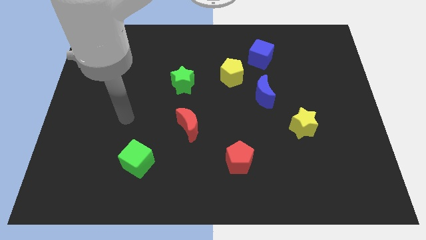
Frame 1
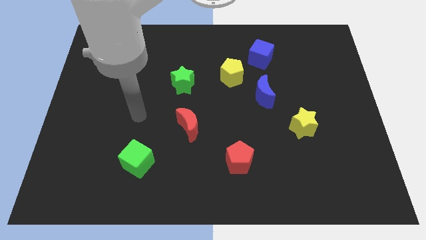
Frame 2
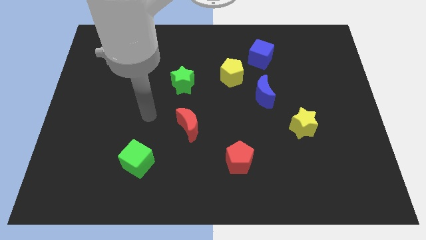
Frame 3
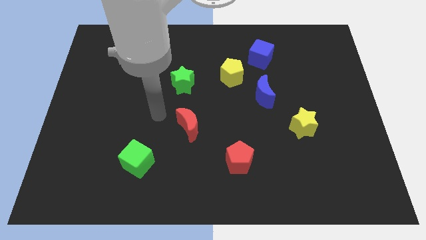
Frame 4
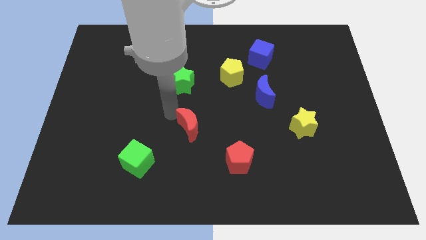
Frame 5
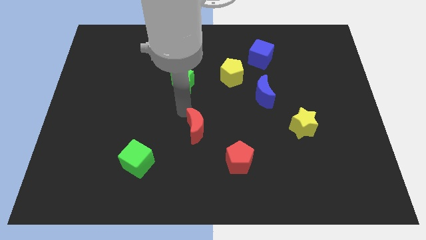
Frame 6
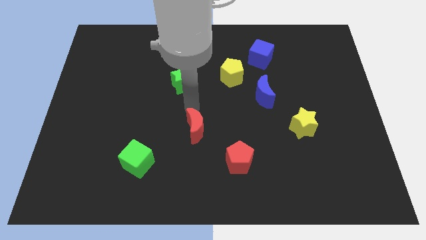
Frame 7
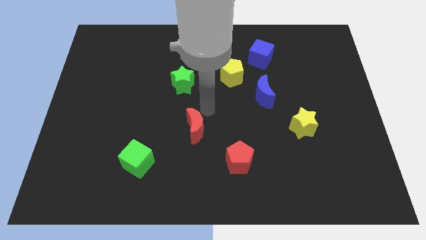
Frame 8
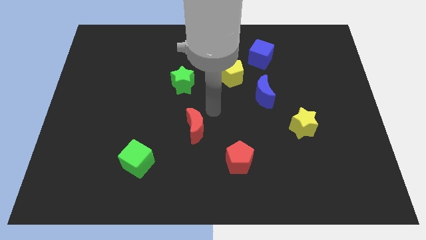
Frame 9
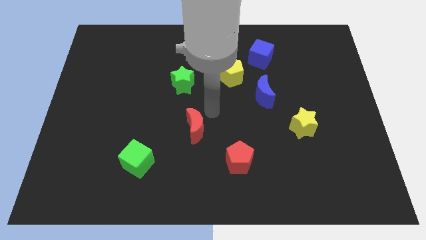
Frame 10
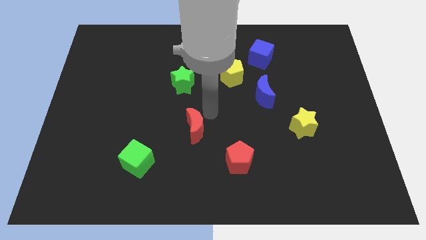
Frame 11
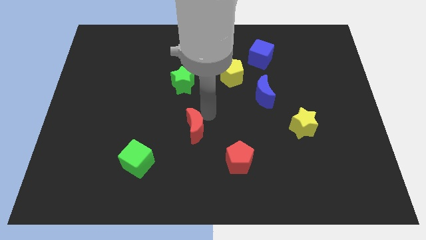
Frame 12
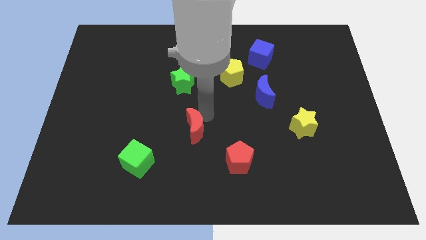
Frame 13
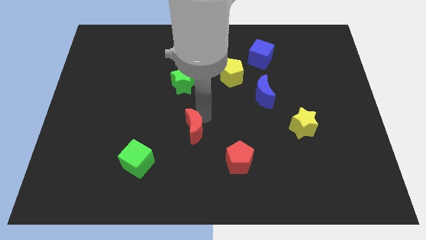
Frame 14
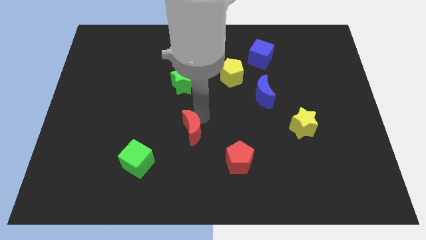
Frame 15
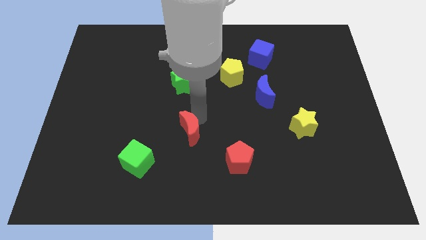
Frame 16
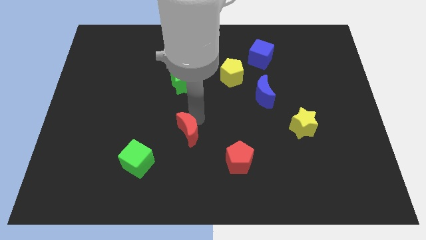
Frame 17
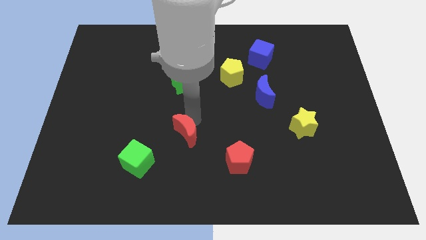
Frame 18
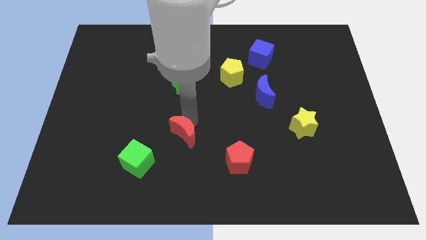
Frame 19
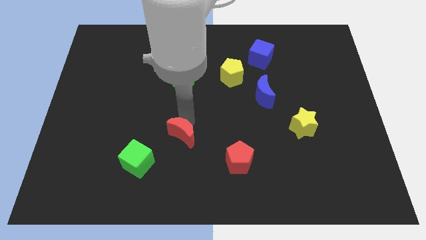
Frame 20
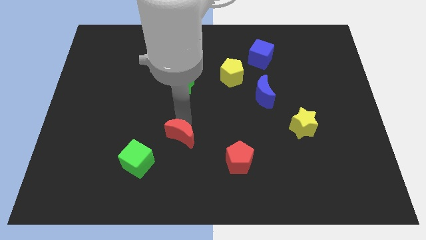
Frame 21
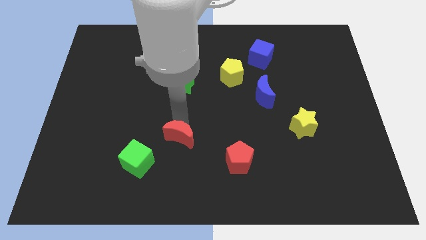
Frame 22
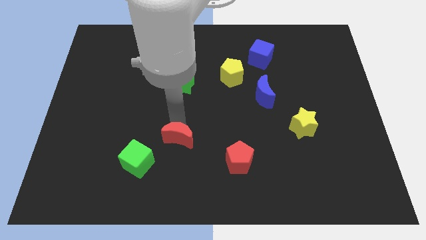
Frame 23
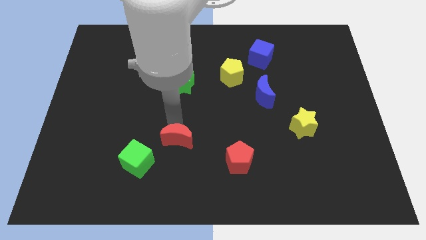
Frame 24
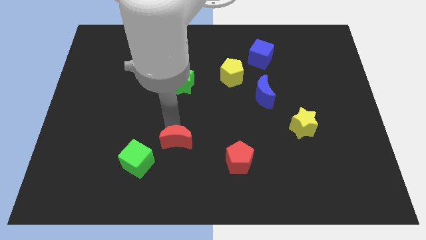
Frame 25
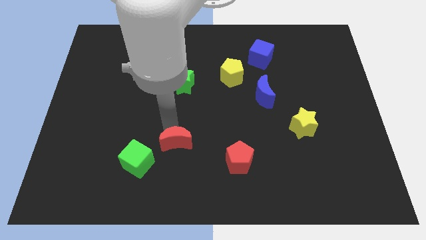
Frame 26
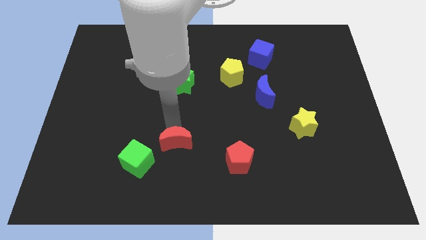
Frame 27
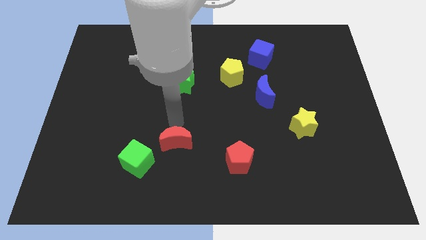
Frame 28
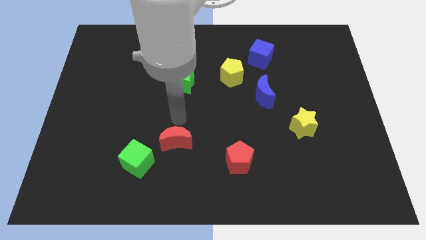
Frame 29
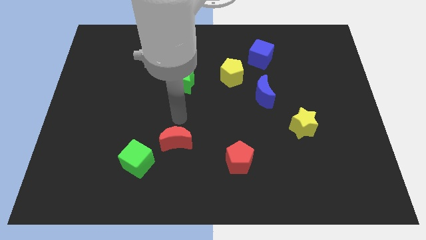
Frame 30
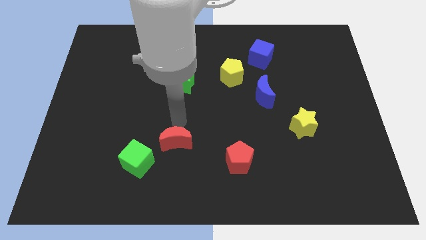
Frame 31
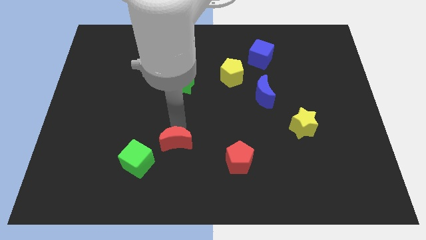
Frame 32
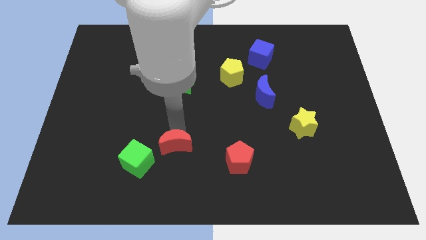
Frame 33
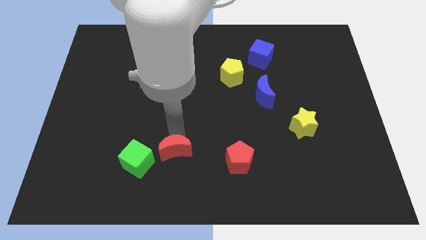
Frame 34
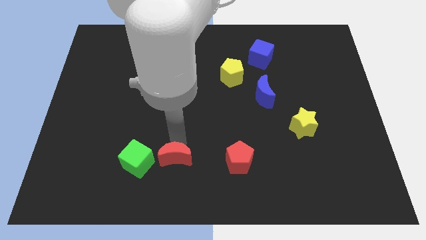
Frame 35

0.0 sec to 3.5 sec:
slide the red moon downwards and to the left diagonally a little bit

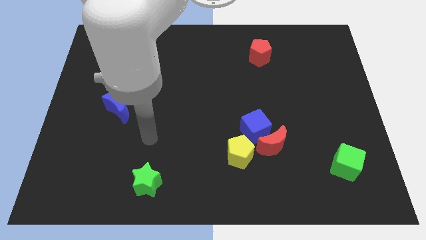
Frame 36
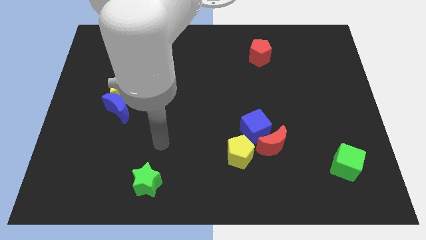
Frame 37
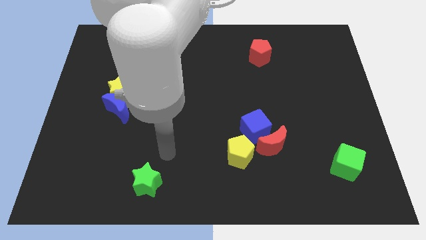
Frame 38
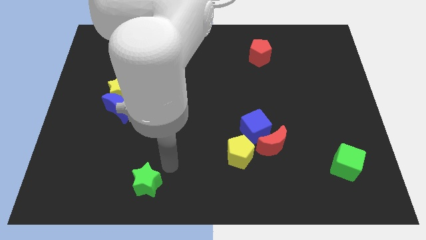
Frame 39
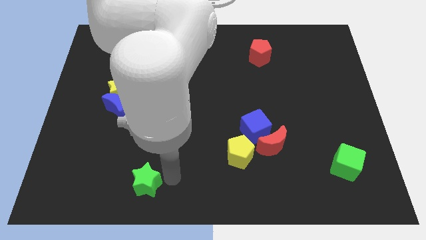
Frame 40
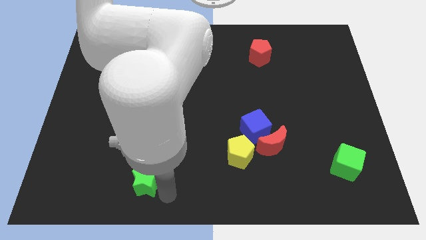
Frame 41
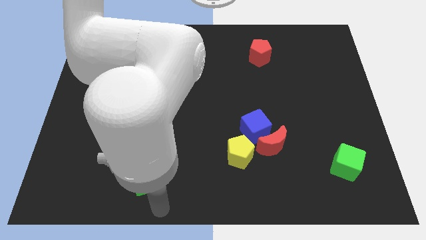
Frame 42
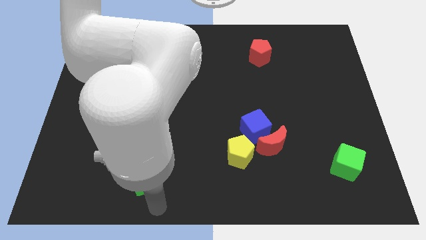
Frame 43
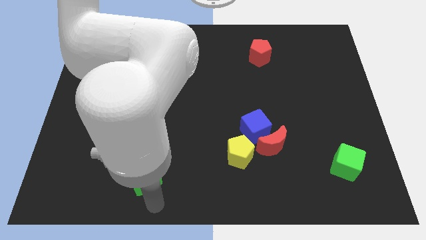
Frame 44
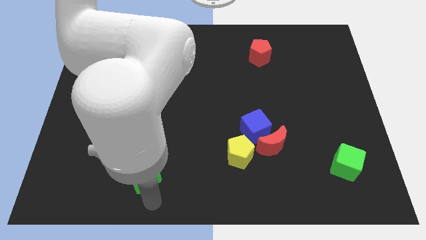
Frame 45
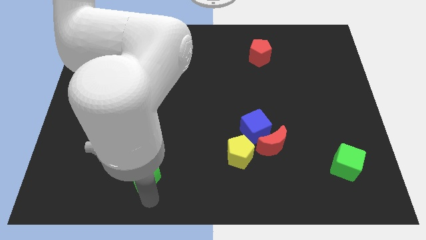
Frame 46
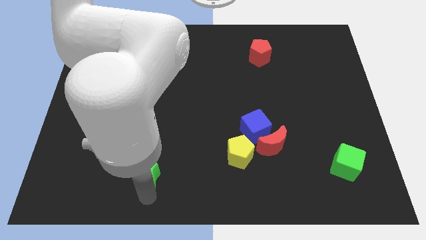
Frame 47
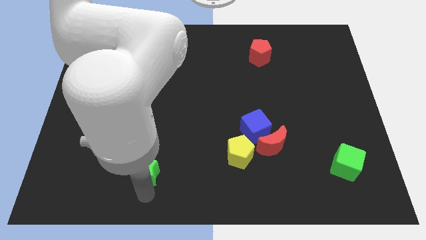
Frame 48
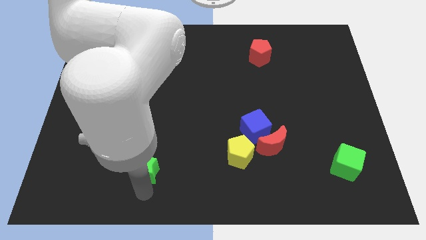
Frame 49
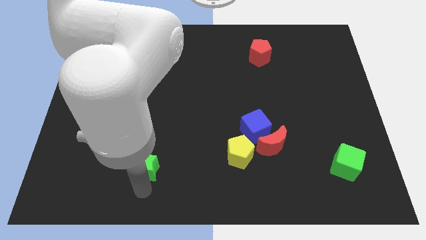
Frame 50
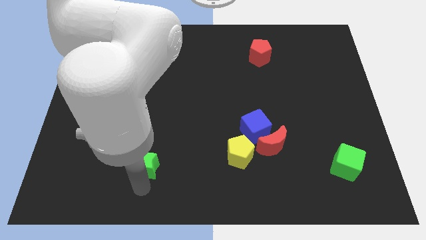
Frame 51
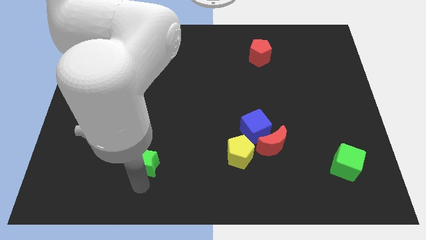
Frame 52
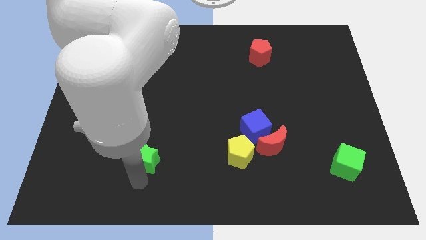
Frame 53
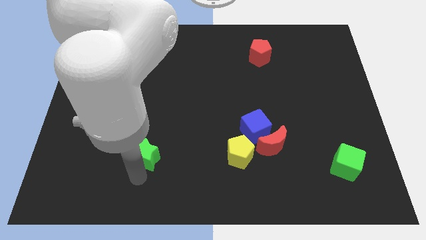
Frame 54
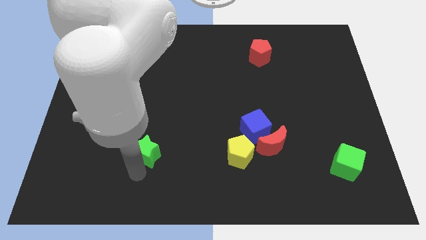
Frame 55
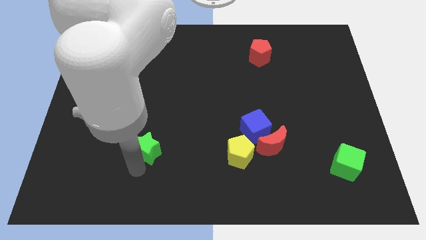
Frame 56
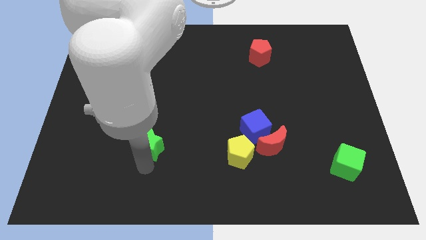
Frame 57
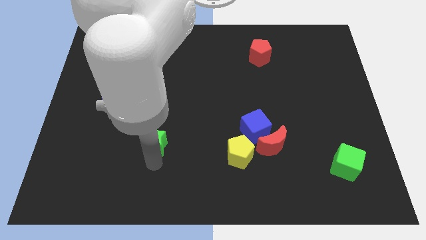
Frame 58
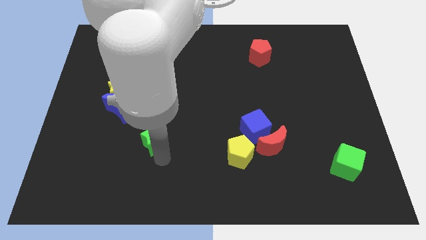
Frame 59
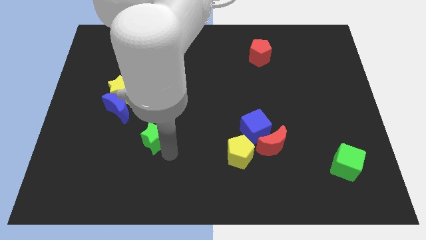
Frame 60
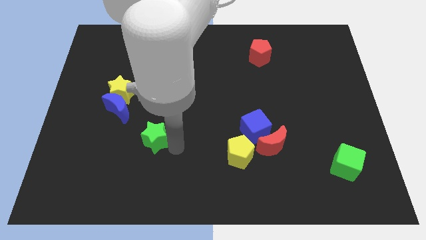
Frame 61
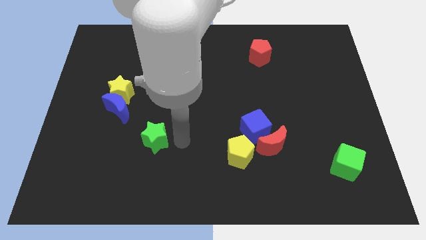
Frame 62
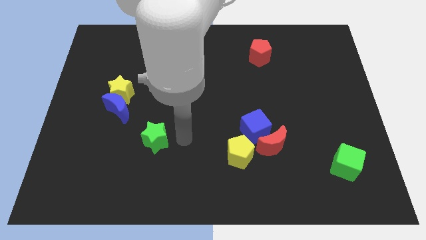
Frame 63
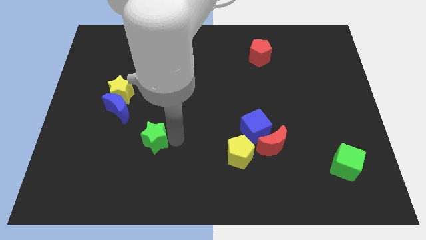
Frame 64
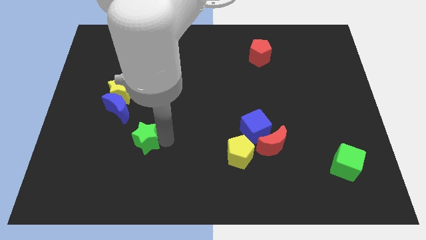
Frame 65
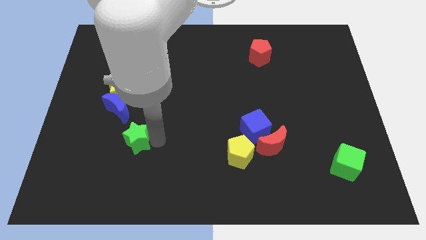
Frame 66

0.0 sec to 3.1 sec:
push the green star somewhat upwards and then to the left

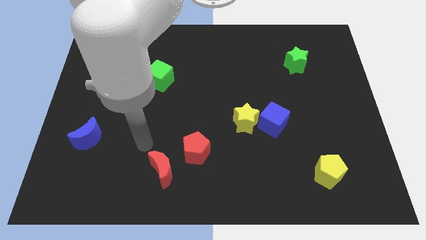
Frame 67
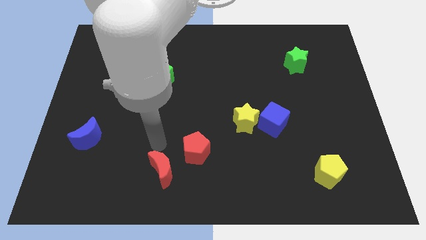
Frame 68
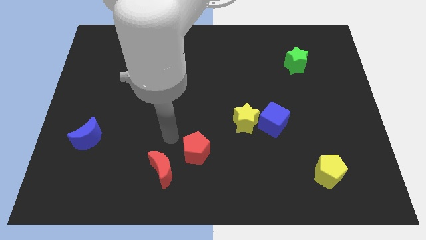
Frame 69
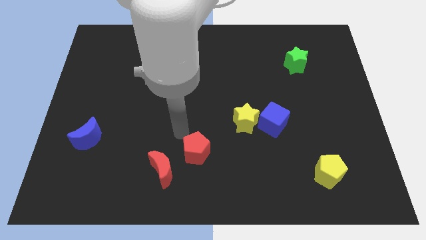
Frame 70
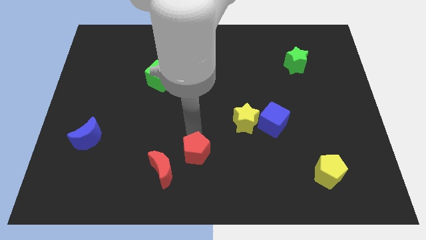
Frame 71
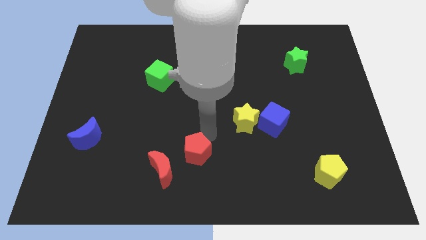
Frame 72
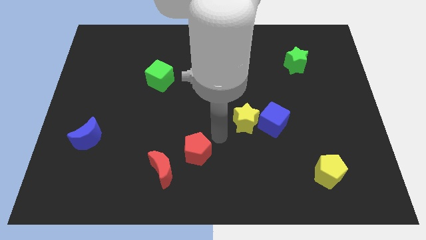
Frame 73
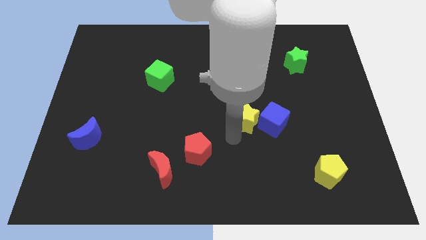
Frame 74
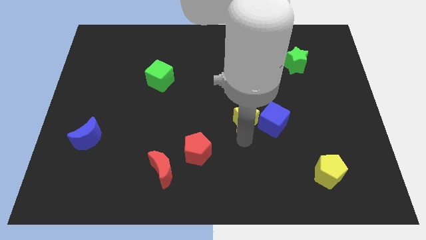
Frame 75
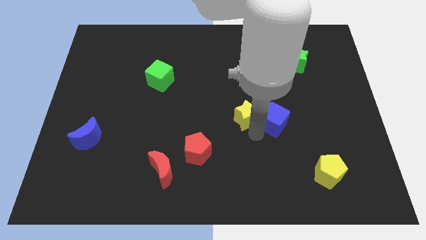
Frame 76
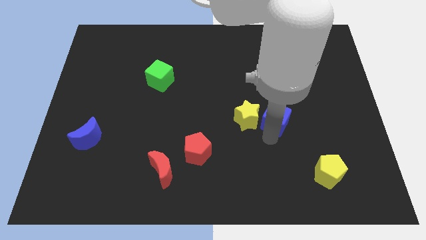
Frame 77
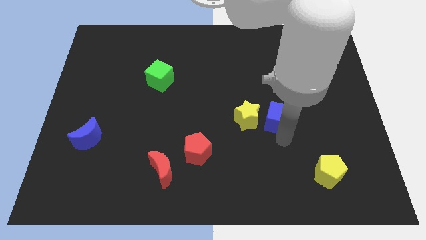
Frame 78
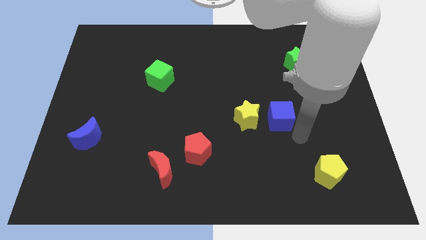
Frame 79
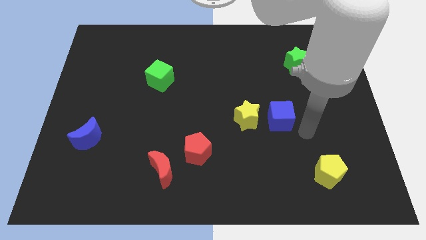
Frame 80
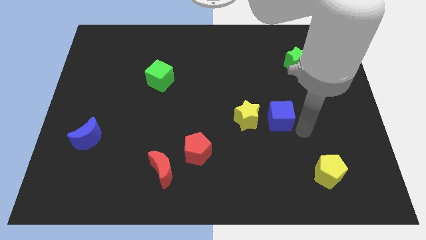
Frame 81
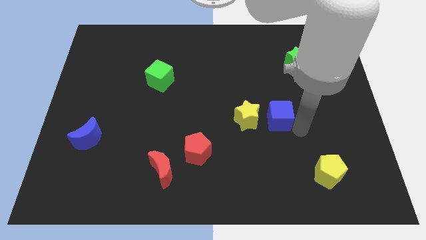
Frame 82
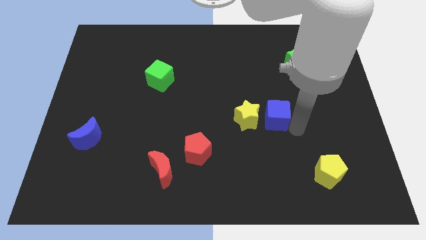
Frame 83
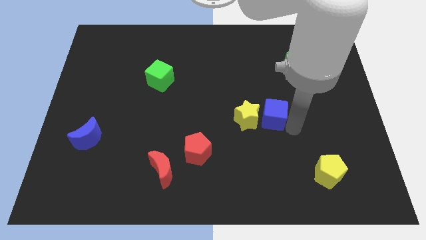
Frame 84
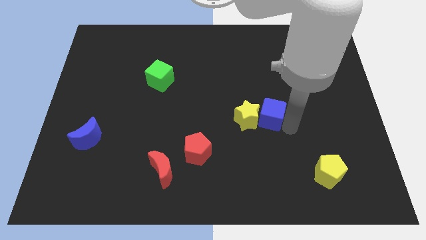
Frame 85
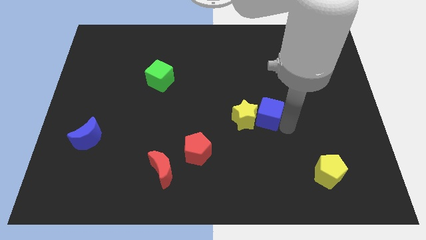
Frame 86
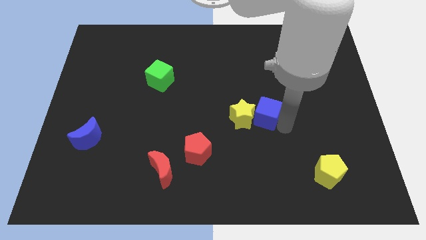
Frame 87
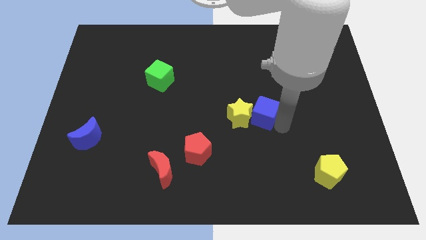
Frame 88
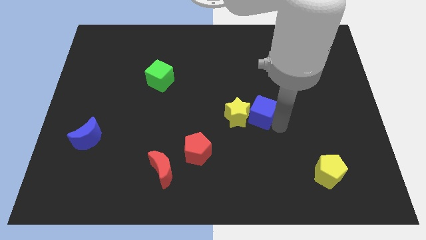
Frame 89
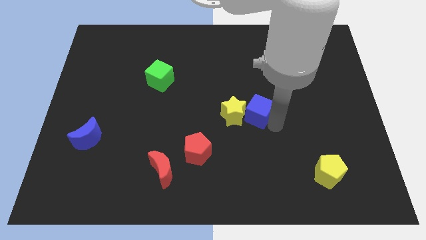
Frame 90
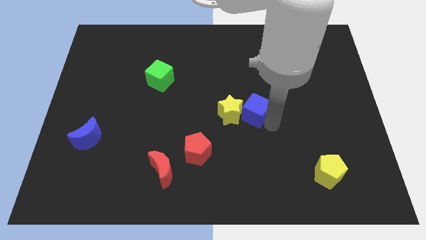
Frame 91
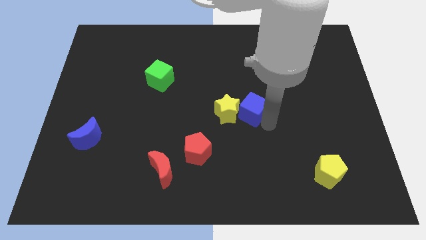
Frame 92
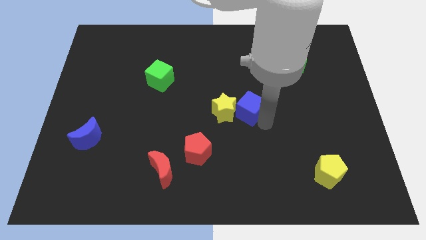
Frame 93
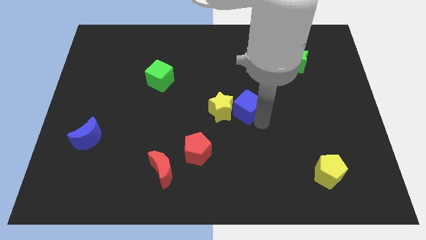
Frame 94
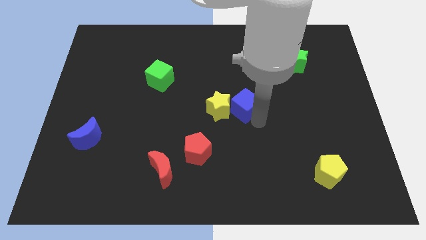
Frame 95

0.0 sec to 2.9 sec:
slightly push the blue cube up and to the left
